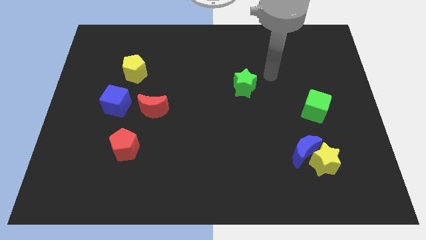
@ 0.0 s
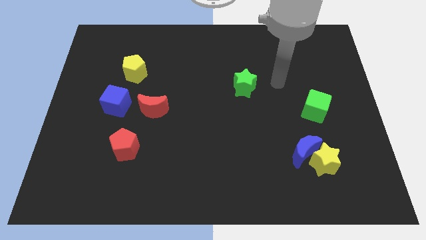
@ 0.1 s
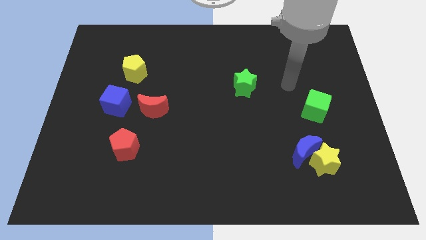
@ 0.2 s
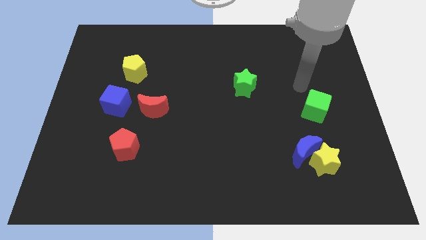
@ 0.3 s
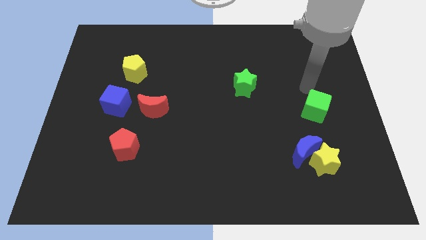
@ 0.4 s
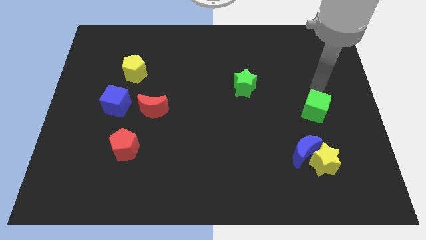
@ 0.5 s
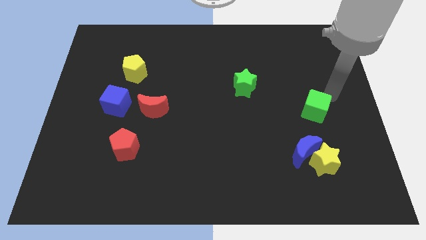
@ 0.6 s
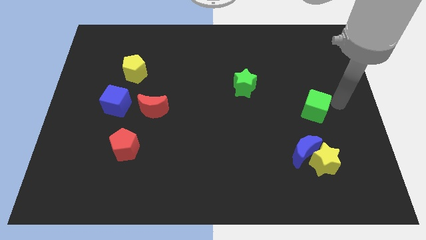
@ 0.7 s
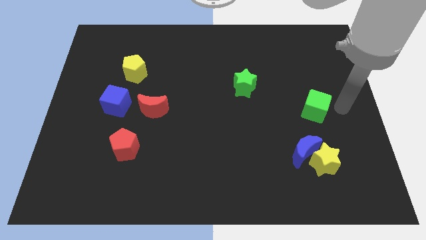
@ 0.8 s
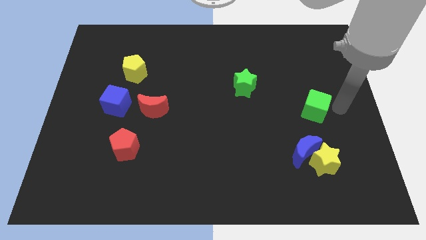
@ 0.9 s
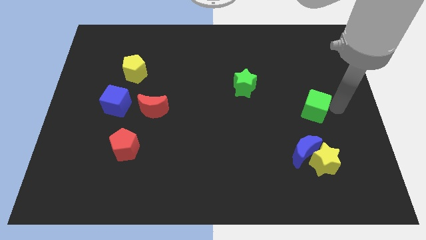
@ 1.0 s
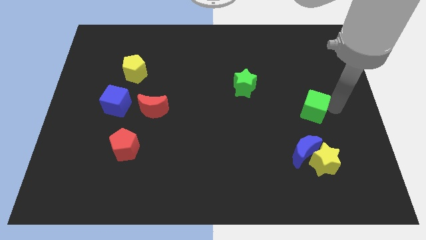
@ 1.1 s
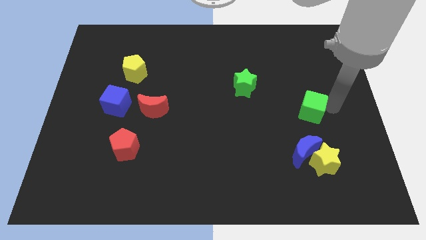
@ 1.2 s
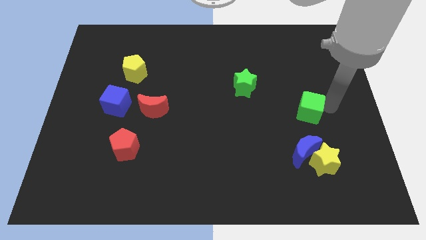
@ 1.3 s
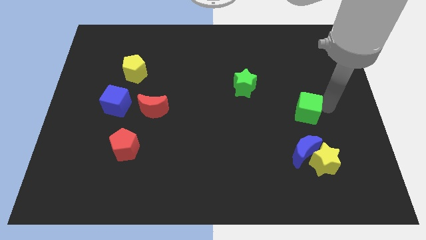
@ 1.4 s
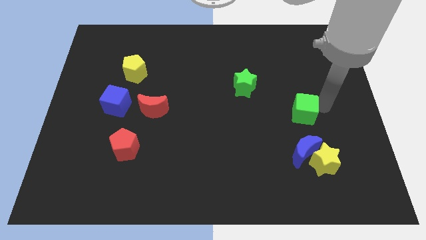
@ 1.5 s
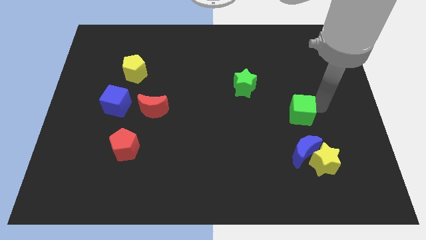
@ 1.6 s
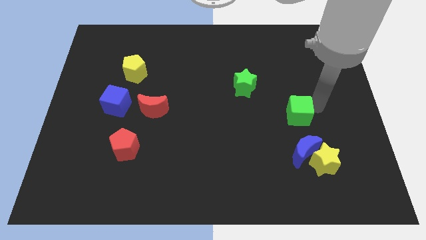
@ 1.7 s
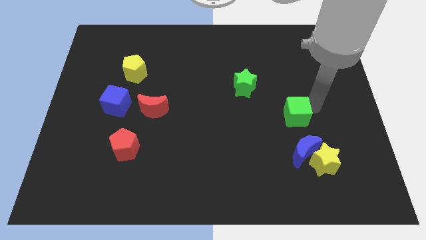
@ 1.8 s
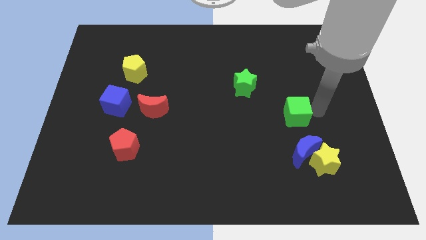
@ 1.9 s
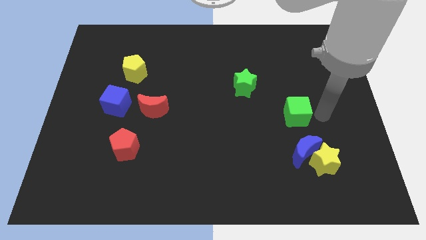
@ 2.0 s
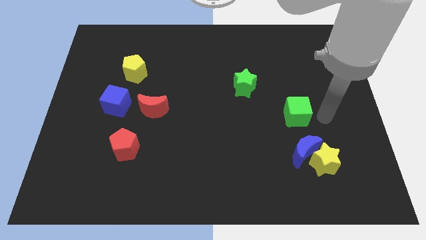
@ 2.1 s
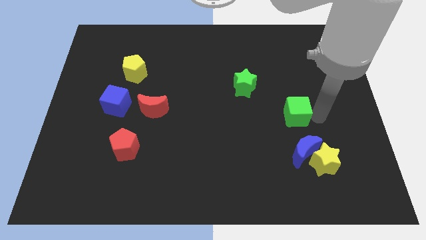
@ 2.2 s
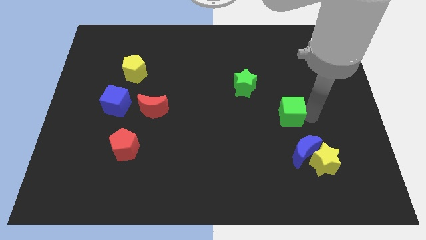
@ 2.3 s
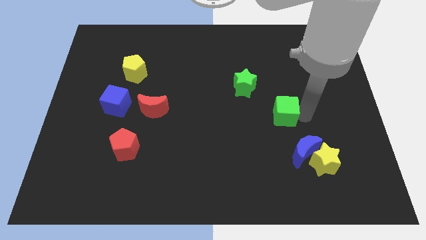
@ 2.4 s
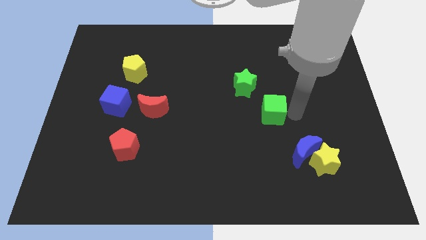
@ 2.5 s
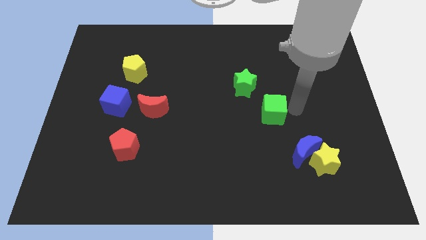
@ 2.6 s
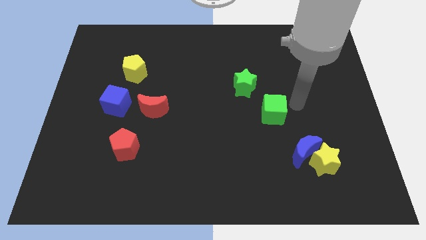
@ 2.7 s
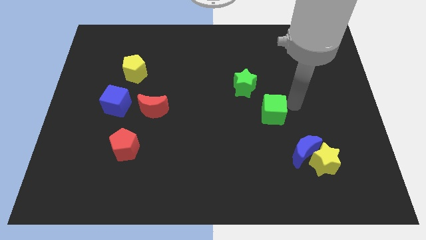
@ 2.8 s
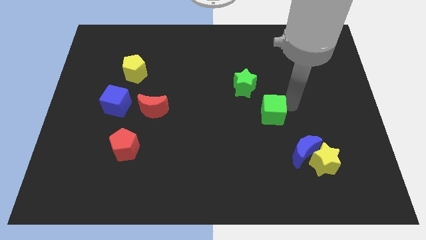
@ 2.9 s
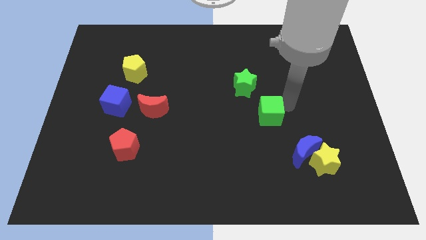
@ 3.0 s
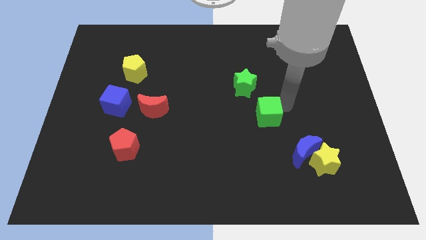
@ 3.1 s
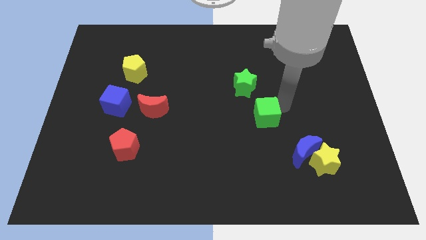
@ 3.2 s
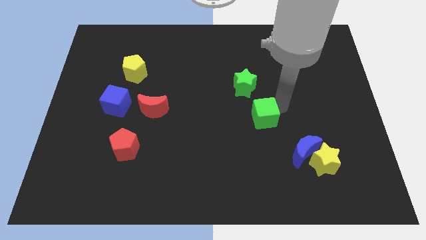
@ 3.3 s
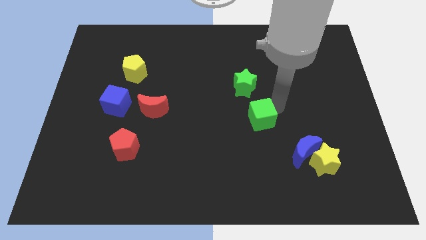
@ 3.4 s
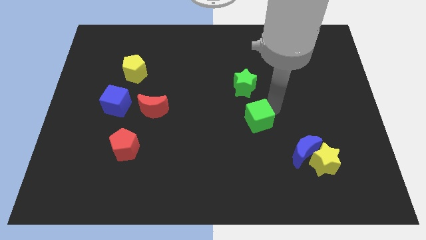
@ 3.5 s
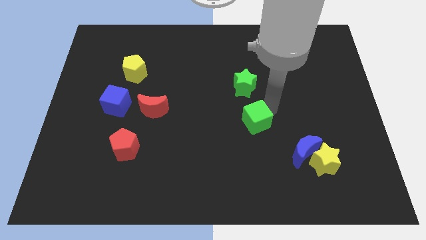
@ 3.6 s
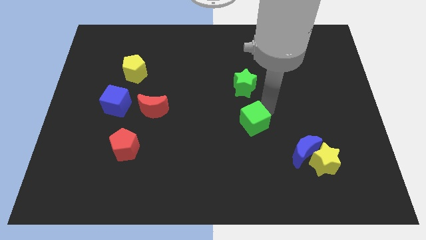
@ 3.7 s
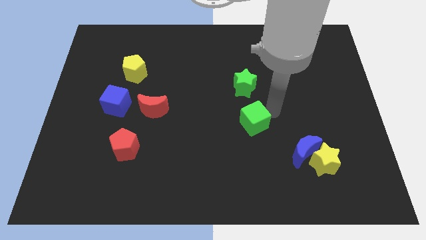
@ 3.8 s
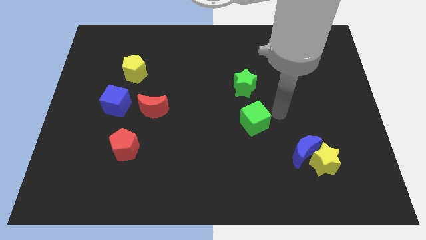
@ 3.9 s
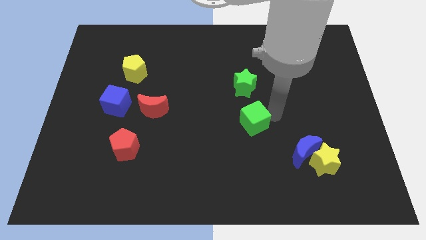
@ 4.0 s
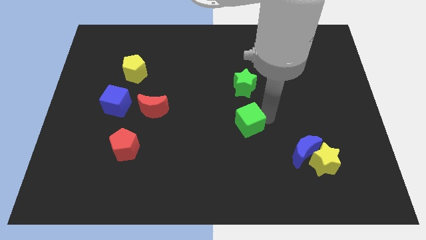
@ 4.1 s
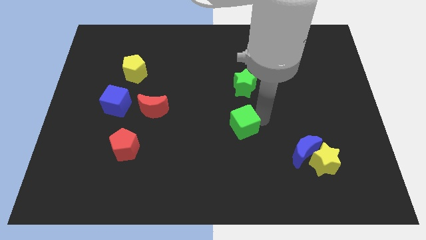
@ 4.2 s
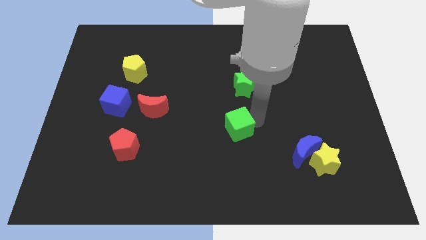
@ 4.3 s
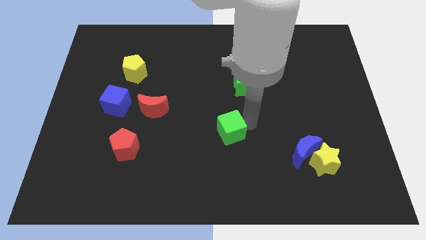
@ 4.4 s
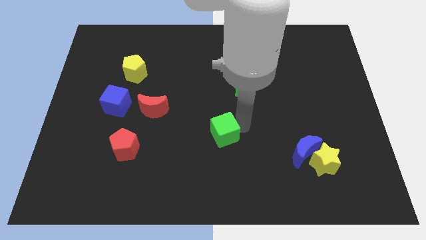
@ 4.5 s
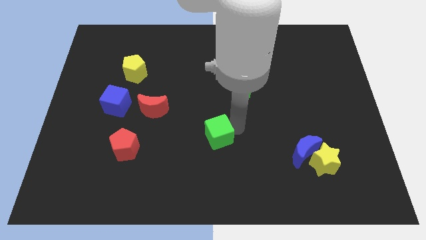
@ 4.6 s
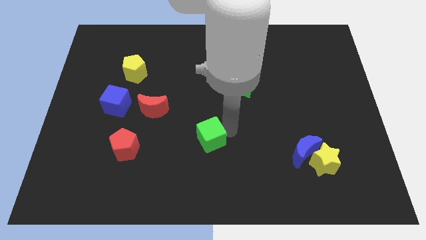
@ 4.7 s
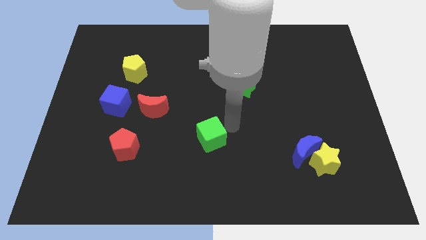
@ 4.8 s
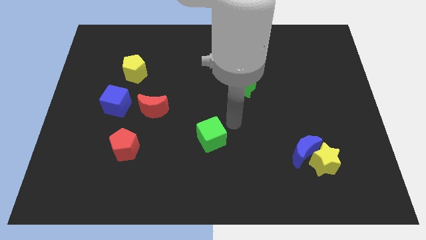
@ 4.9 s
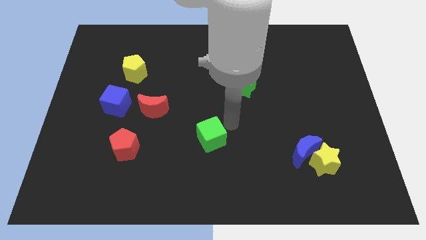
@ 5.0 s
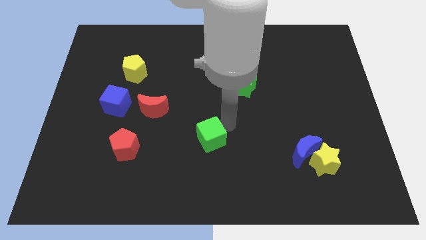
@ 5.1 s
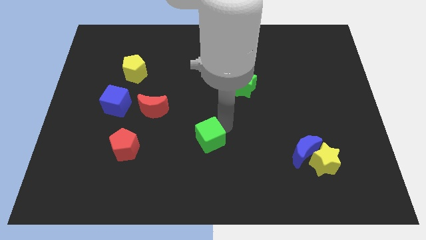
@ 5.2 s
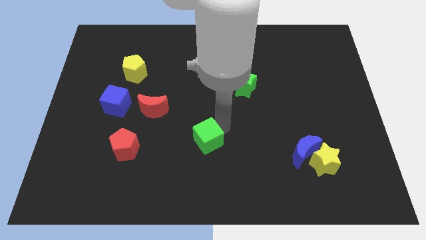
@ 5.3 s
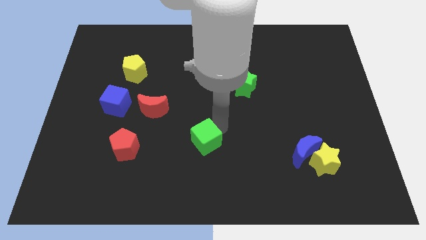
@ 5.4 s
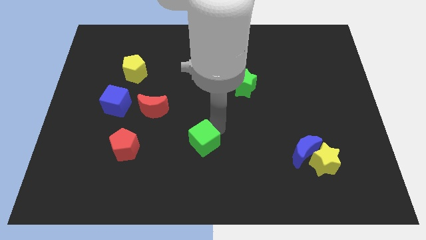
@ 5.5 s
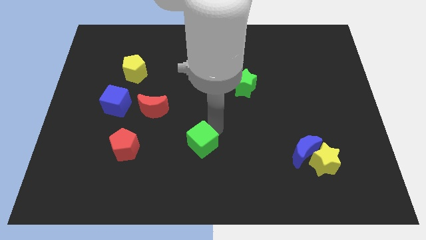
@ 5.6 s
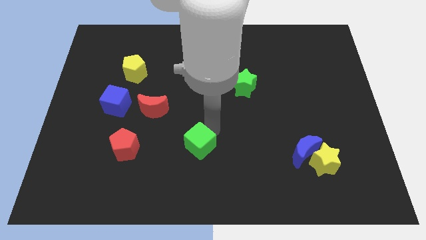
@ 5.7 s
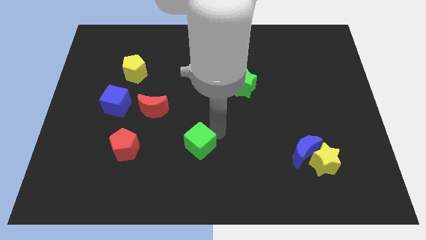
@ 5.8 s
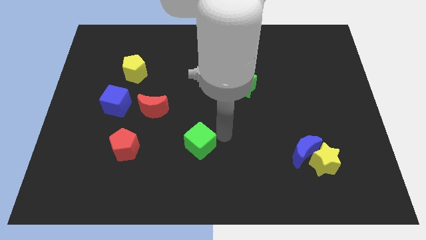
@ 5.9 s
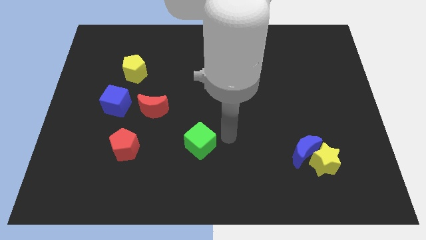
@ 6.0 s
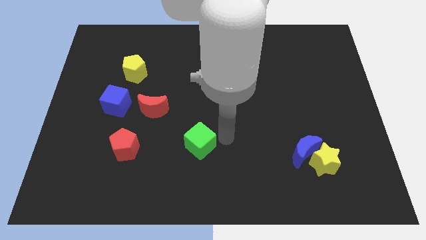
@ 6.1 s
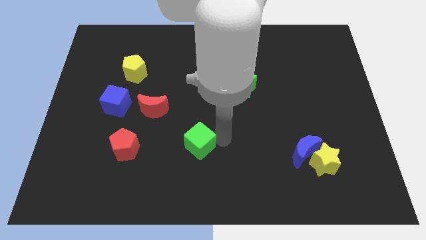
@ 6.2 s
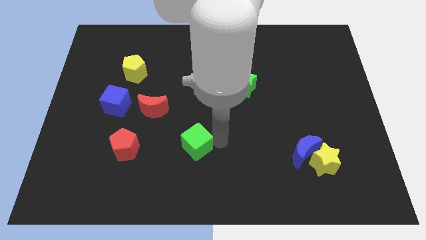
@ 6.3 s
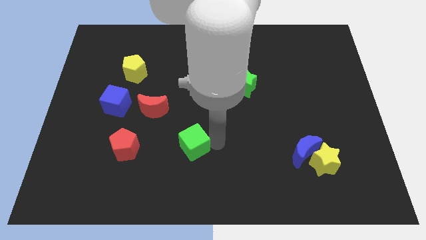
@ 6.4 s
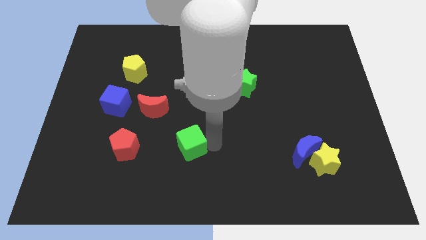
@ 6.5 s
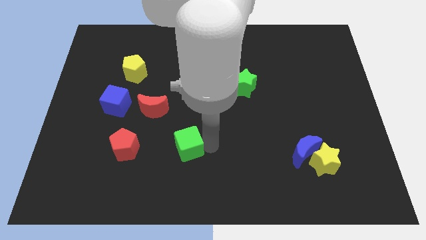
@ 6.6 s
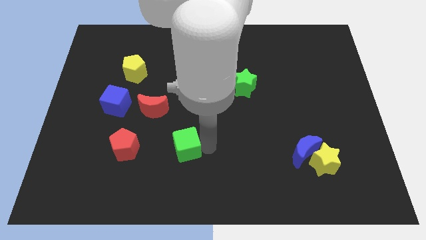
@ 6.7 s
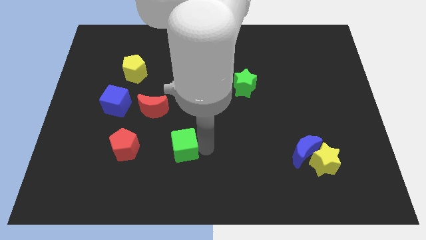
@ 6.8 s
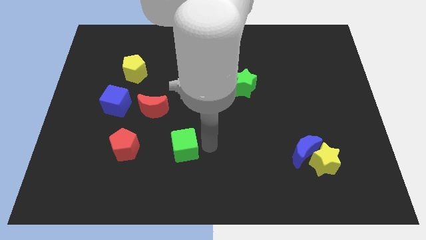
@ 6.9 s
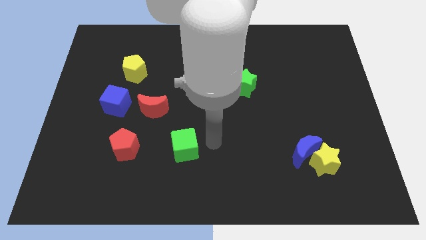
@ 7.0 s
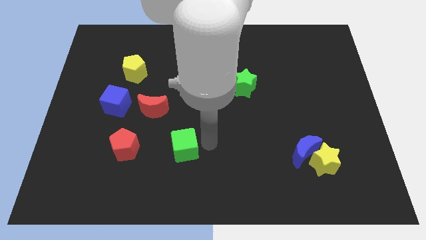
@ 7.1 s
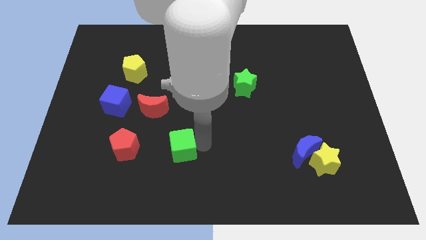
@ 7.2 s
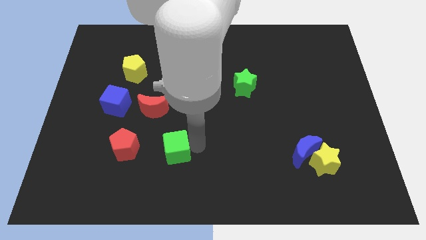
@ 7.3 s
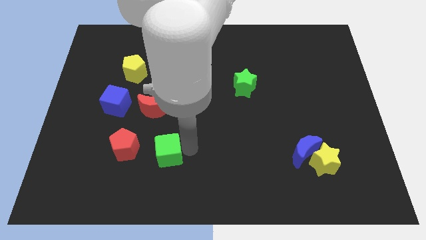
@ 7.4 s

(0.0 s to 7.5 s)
move the green cube below the red moon
